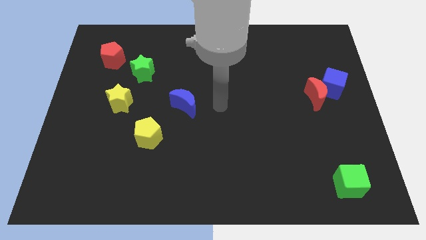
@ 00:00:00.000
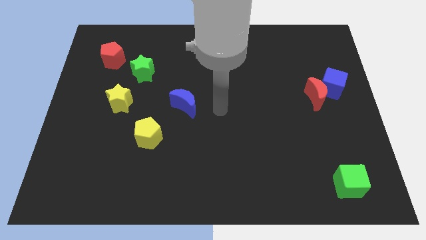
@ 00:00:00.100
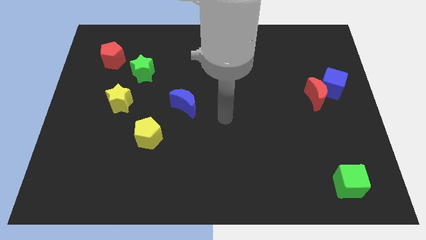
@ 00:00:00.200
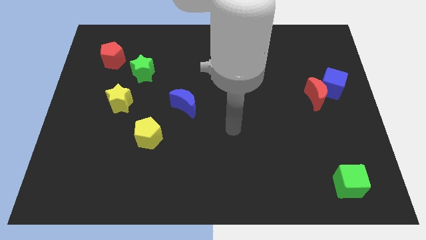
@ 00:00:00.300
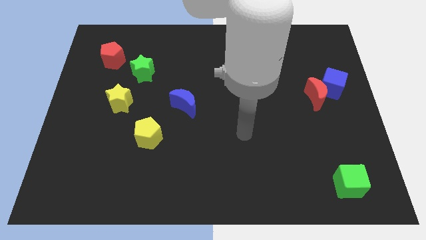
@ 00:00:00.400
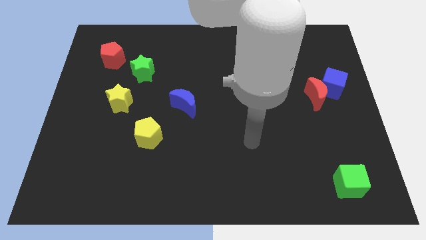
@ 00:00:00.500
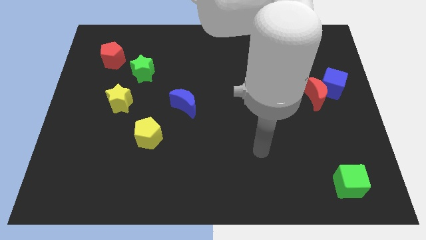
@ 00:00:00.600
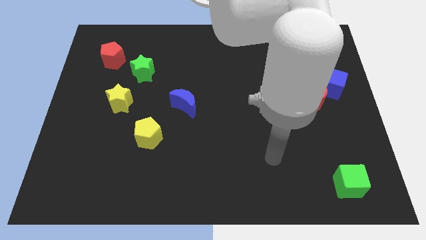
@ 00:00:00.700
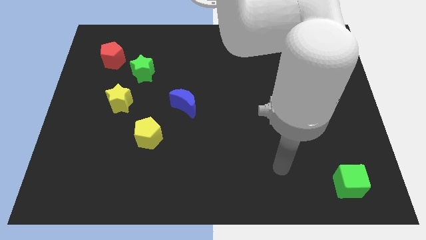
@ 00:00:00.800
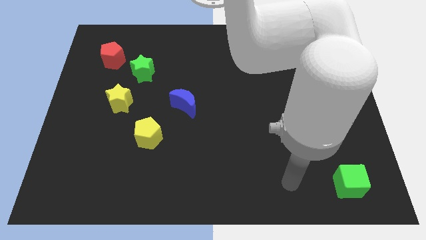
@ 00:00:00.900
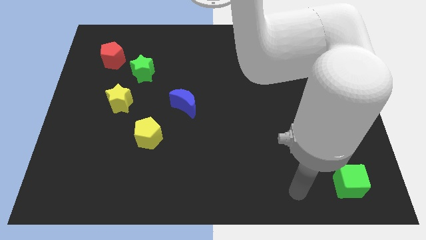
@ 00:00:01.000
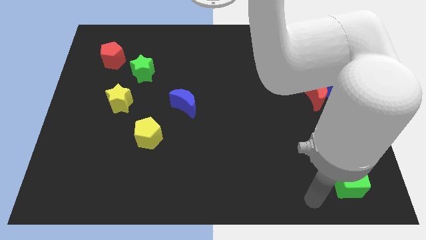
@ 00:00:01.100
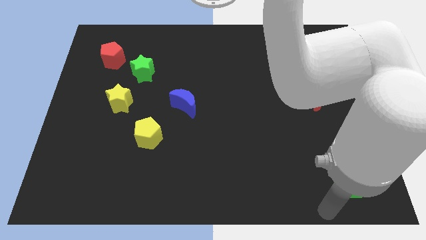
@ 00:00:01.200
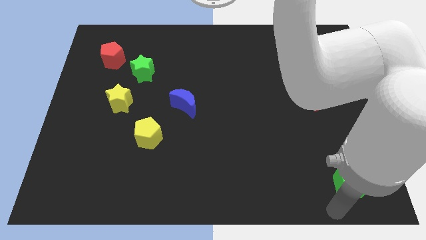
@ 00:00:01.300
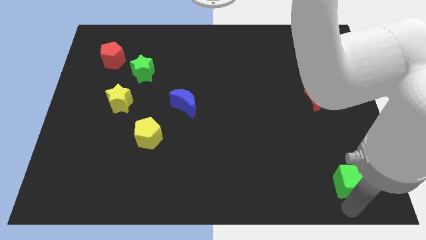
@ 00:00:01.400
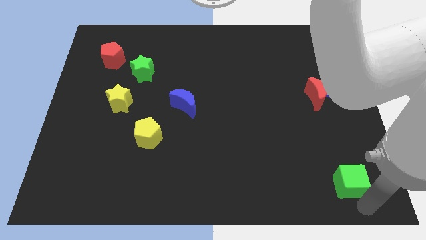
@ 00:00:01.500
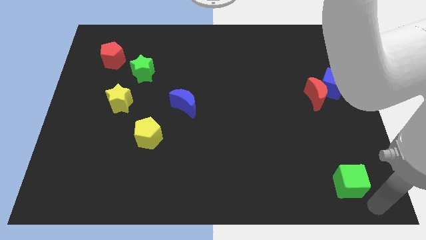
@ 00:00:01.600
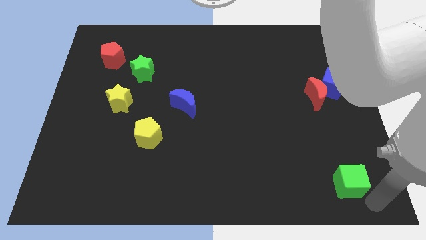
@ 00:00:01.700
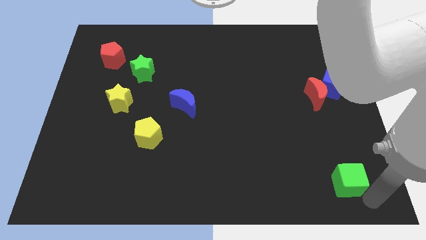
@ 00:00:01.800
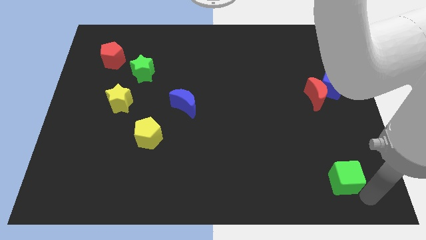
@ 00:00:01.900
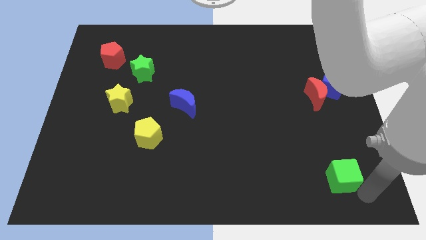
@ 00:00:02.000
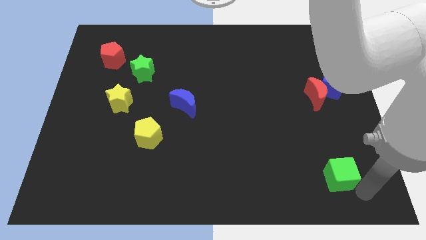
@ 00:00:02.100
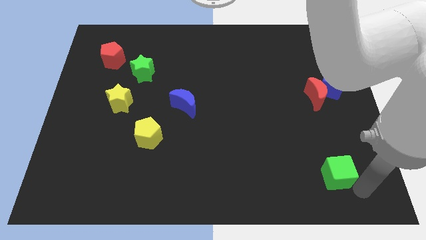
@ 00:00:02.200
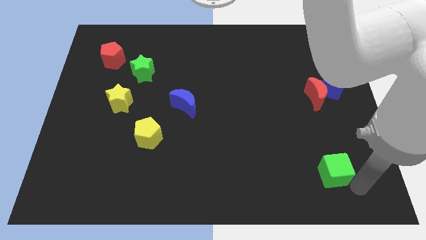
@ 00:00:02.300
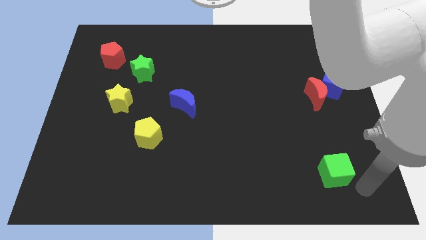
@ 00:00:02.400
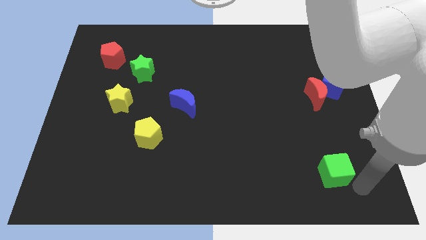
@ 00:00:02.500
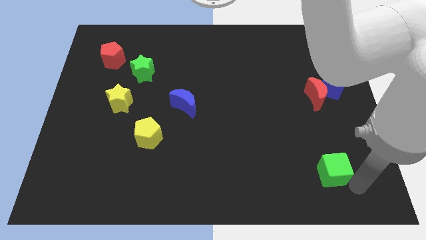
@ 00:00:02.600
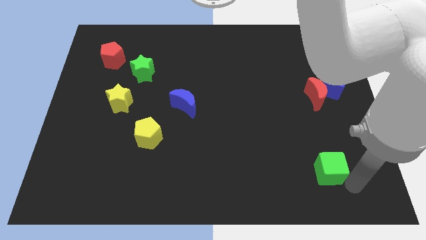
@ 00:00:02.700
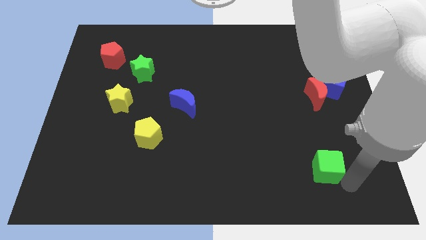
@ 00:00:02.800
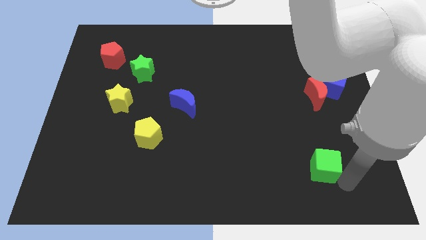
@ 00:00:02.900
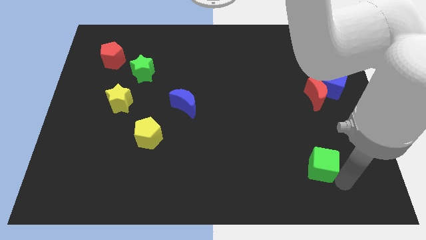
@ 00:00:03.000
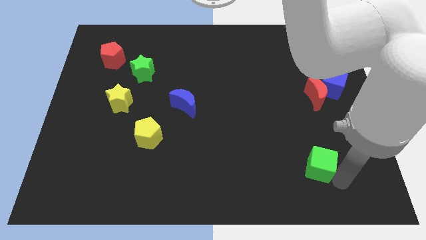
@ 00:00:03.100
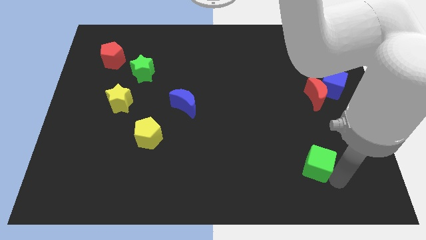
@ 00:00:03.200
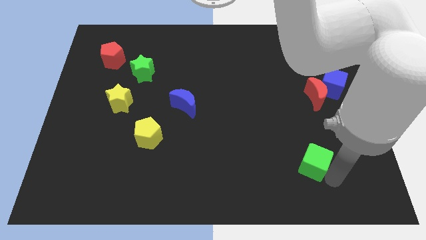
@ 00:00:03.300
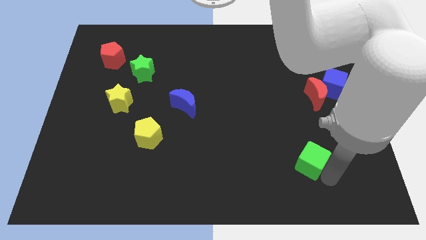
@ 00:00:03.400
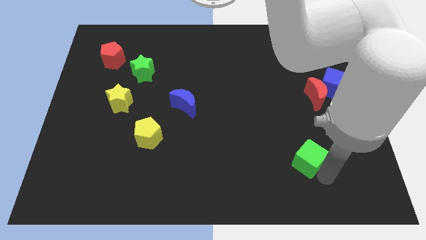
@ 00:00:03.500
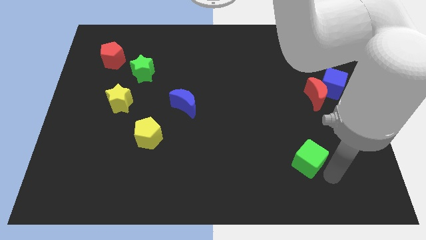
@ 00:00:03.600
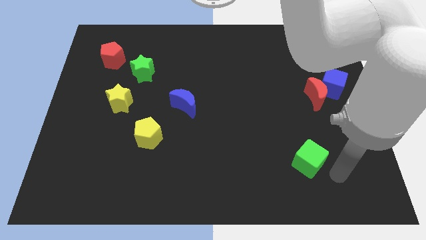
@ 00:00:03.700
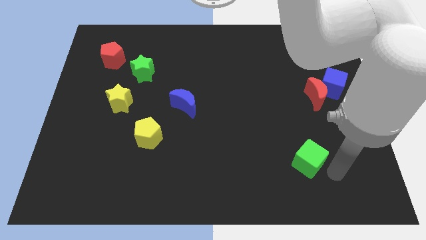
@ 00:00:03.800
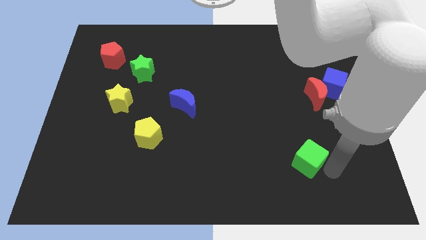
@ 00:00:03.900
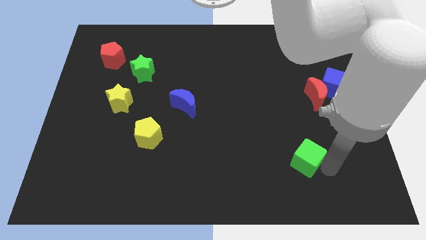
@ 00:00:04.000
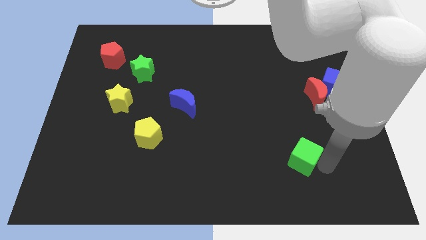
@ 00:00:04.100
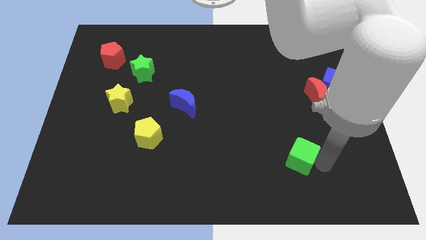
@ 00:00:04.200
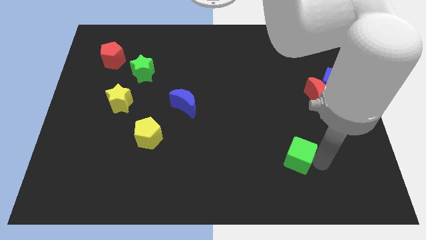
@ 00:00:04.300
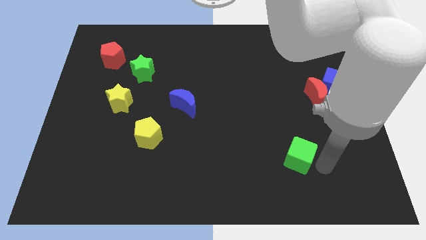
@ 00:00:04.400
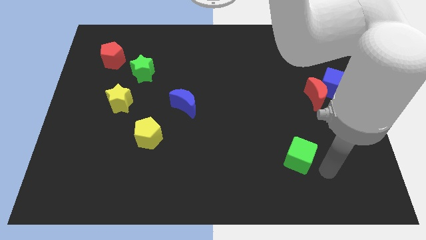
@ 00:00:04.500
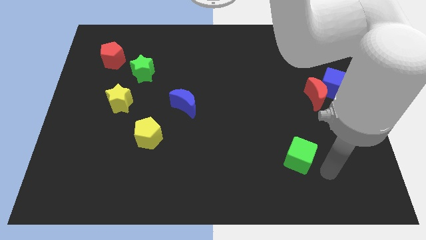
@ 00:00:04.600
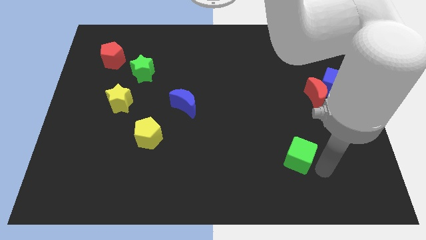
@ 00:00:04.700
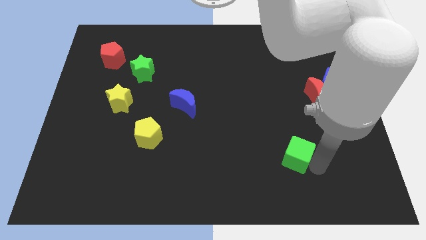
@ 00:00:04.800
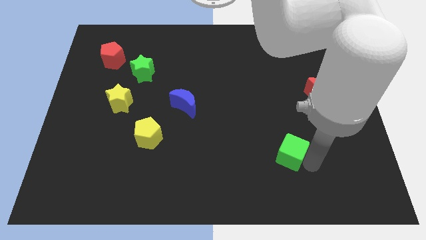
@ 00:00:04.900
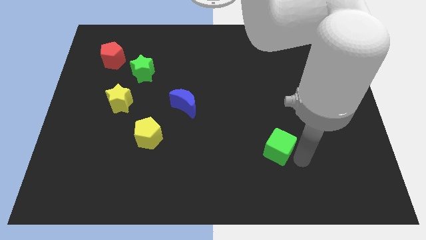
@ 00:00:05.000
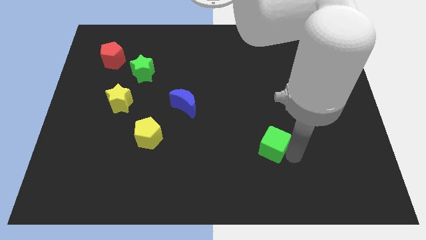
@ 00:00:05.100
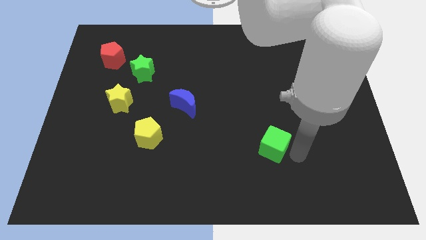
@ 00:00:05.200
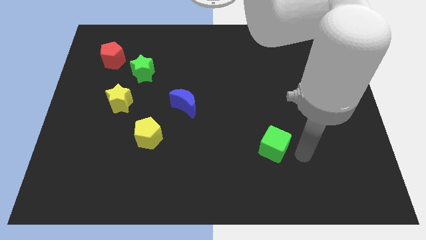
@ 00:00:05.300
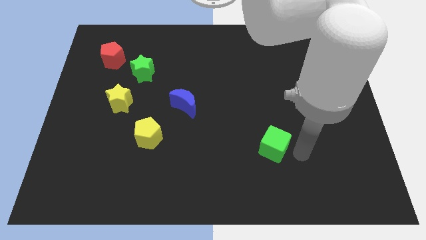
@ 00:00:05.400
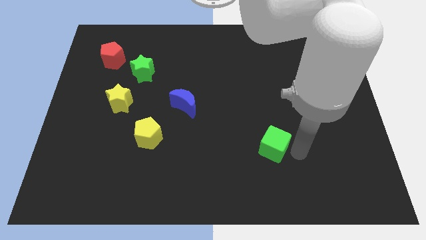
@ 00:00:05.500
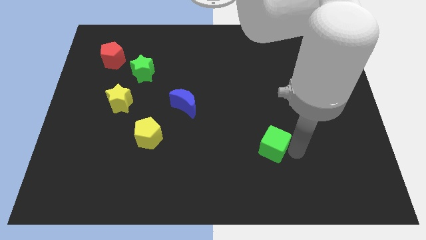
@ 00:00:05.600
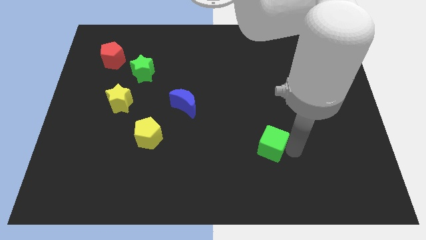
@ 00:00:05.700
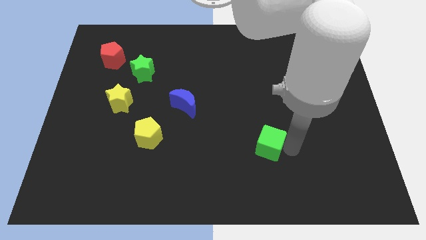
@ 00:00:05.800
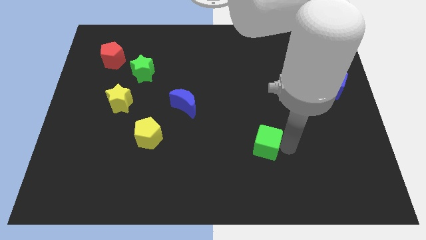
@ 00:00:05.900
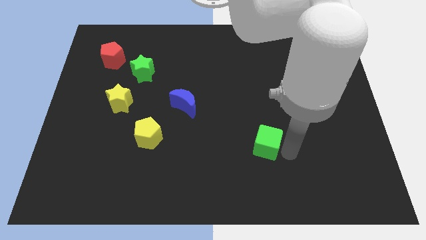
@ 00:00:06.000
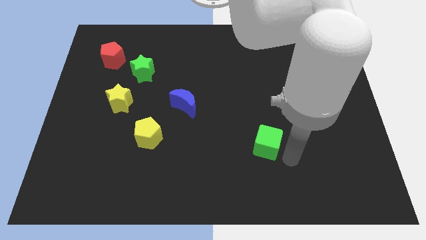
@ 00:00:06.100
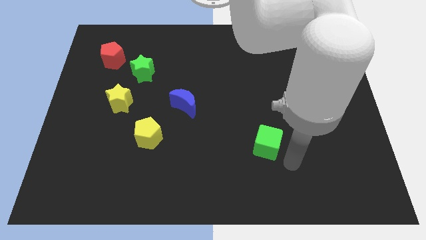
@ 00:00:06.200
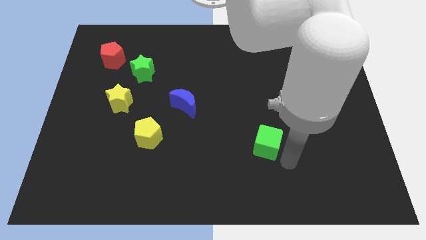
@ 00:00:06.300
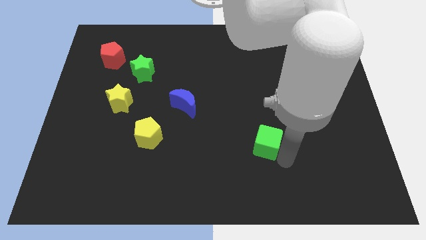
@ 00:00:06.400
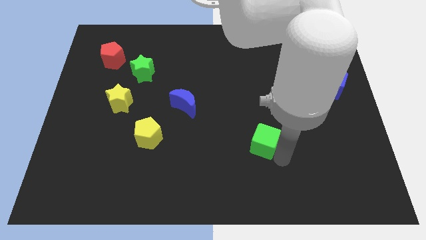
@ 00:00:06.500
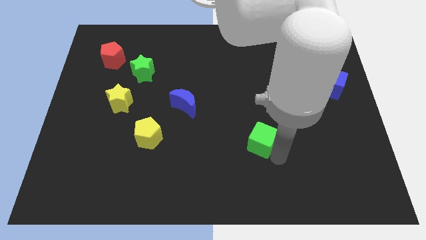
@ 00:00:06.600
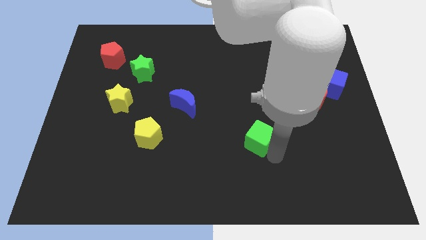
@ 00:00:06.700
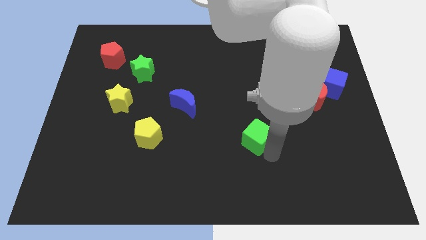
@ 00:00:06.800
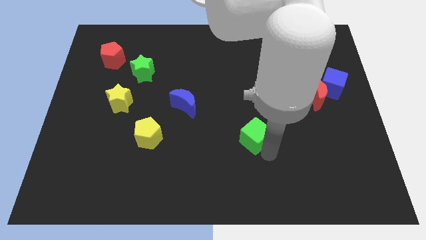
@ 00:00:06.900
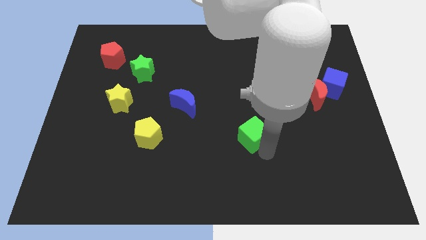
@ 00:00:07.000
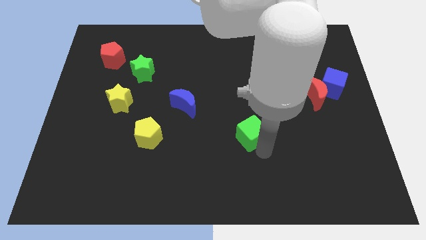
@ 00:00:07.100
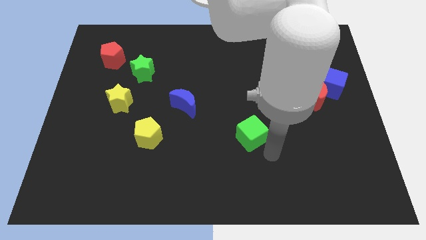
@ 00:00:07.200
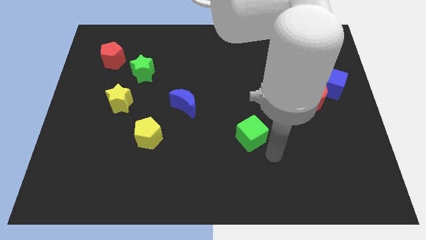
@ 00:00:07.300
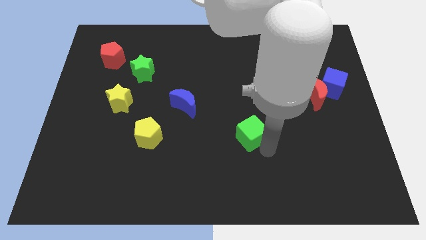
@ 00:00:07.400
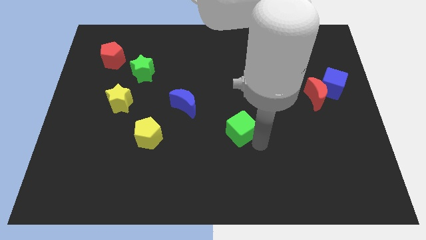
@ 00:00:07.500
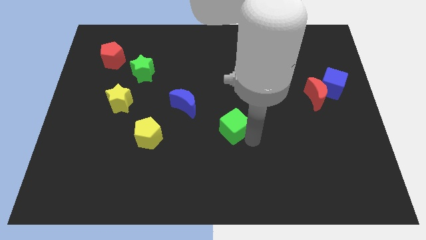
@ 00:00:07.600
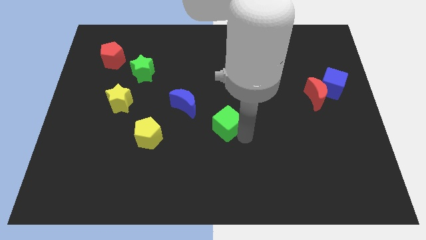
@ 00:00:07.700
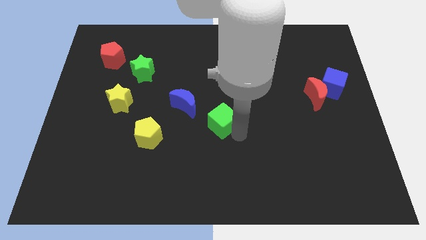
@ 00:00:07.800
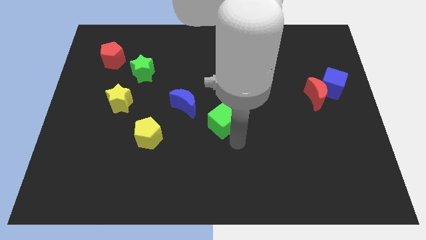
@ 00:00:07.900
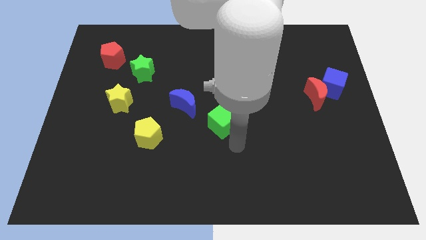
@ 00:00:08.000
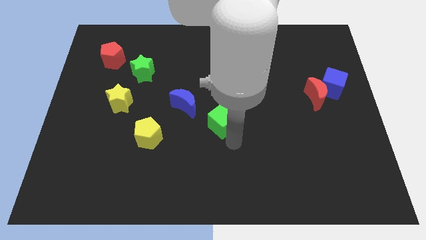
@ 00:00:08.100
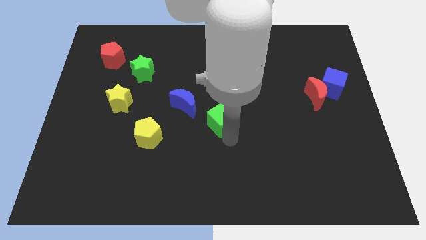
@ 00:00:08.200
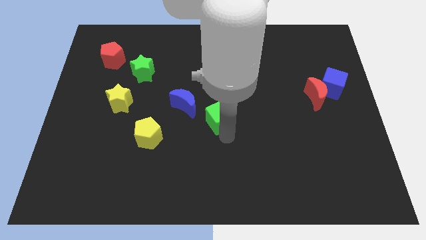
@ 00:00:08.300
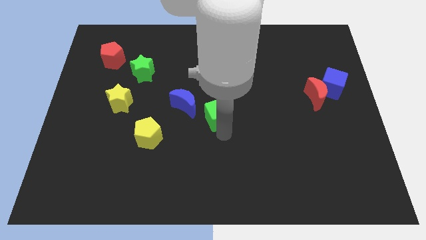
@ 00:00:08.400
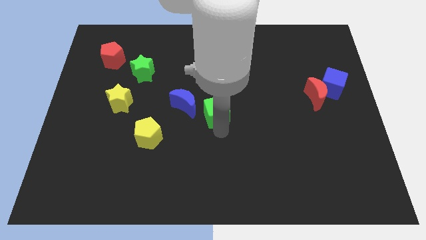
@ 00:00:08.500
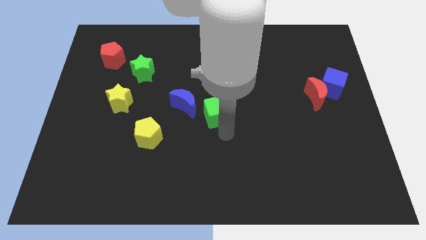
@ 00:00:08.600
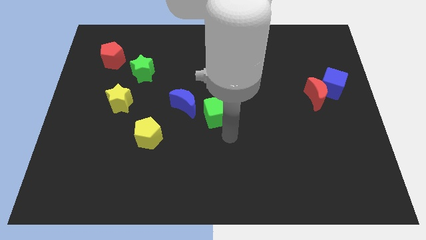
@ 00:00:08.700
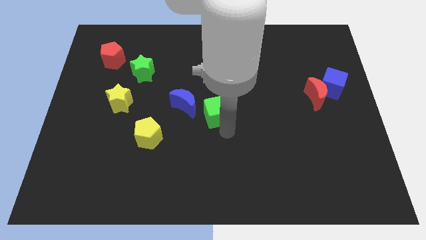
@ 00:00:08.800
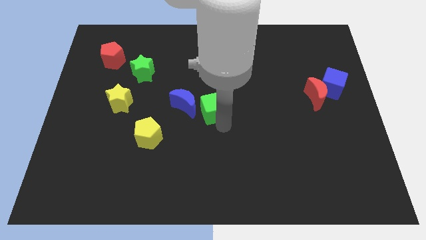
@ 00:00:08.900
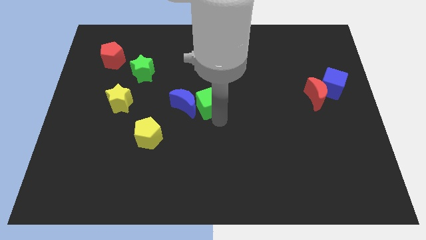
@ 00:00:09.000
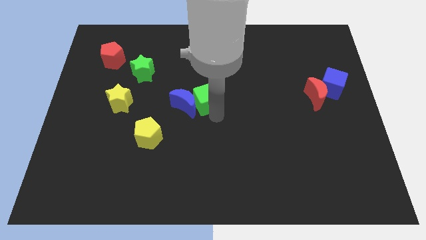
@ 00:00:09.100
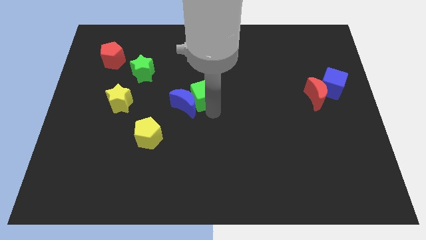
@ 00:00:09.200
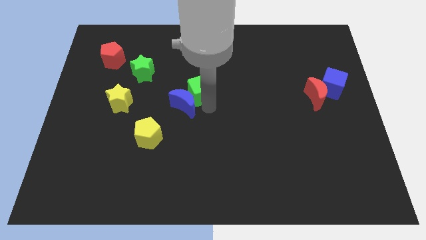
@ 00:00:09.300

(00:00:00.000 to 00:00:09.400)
move the green cube above the blue moon
